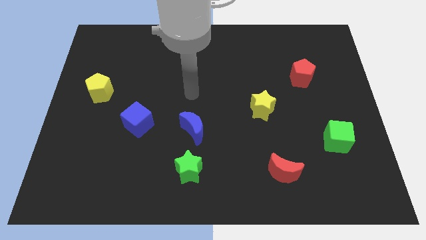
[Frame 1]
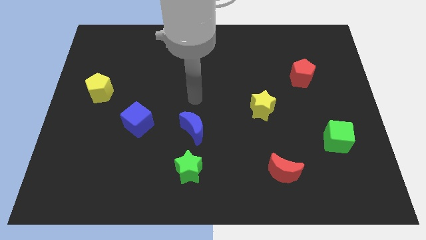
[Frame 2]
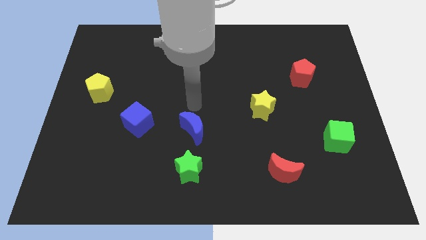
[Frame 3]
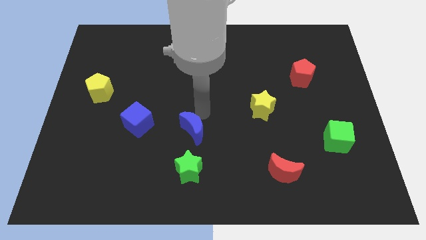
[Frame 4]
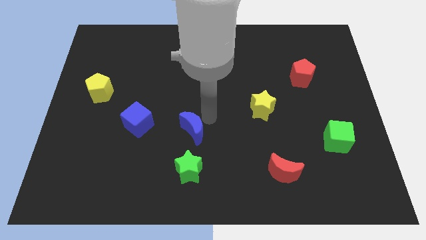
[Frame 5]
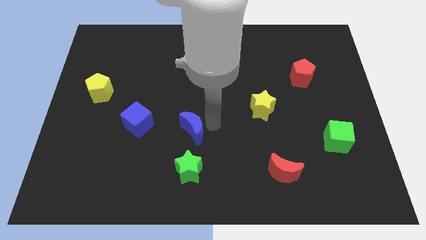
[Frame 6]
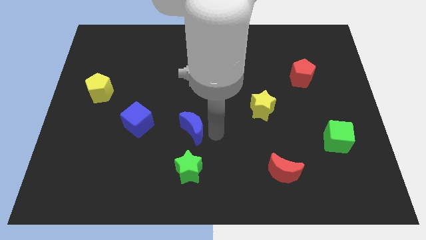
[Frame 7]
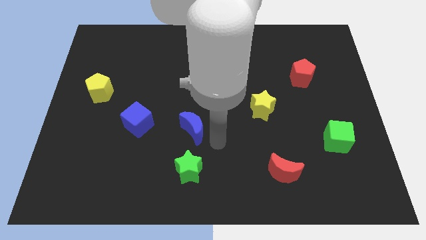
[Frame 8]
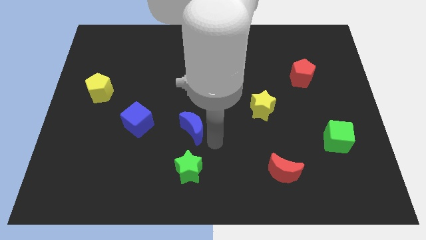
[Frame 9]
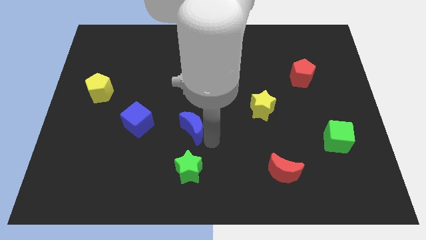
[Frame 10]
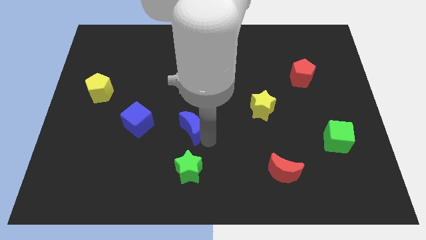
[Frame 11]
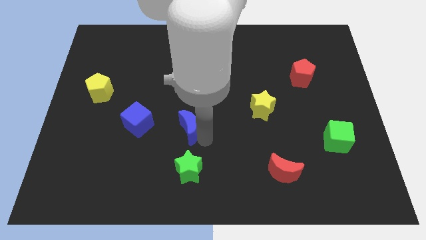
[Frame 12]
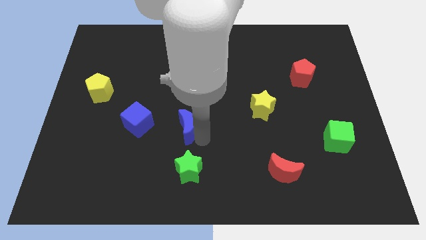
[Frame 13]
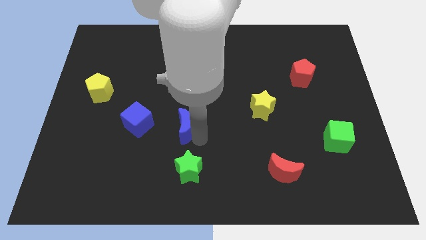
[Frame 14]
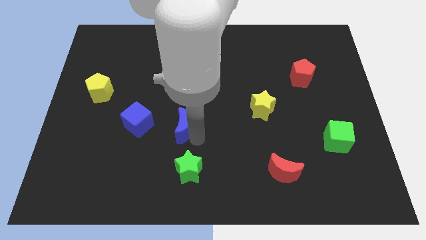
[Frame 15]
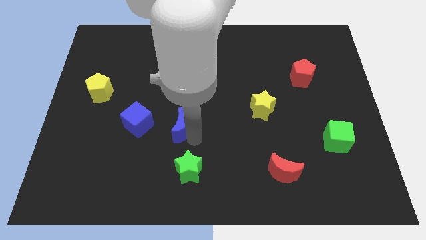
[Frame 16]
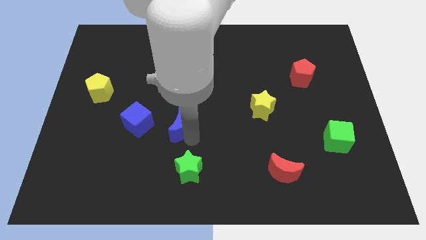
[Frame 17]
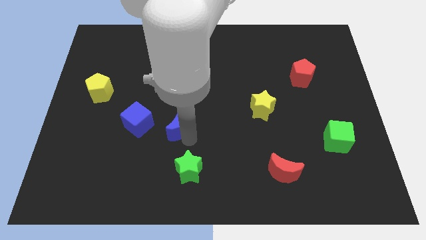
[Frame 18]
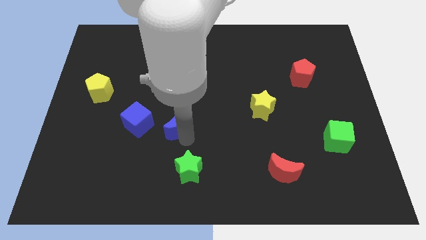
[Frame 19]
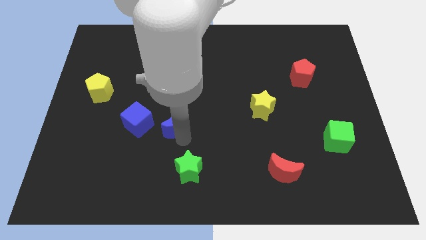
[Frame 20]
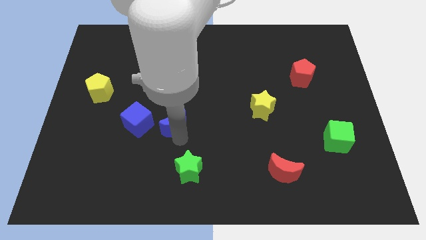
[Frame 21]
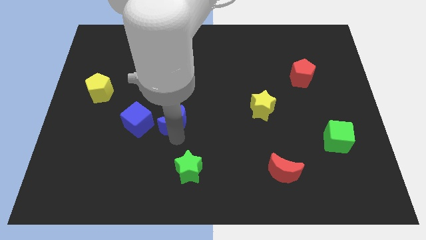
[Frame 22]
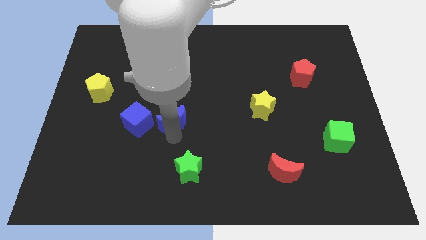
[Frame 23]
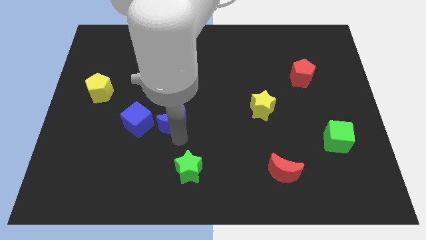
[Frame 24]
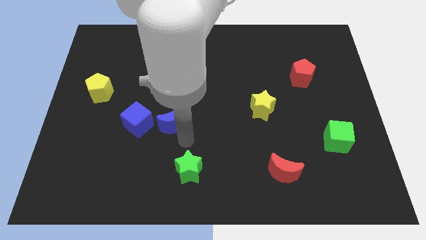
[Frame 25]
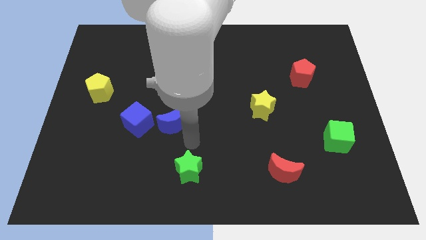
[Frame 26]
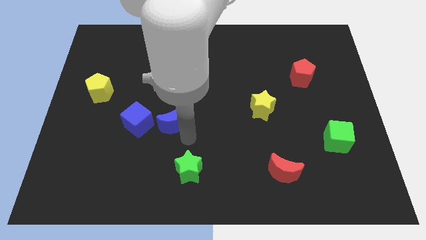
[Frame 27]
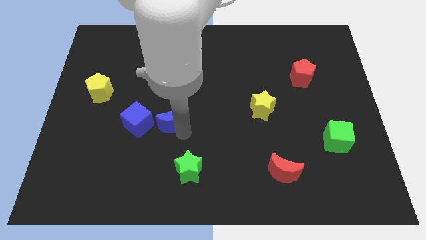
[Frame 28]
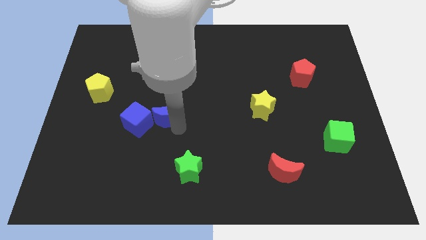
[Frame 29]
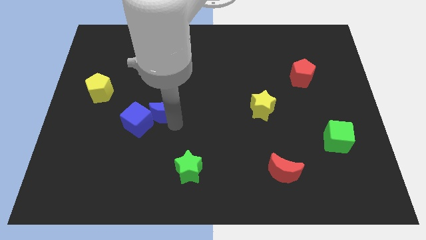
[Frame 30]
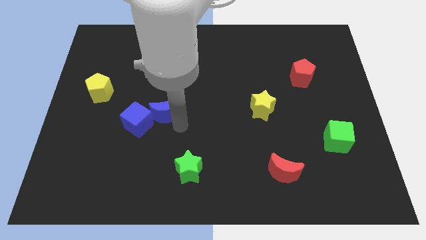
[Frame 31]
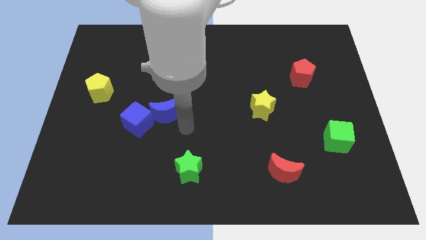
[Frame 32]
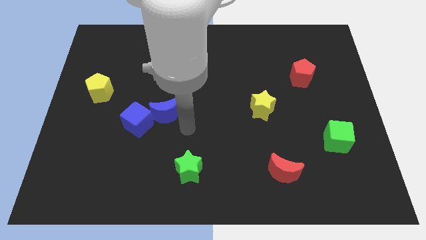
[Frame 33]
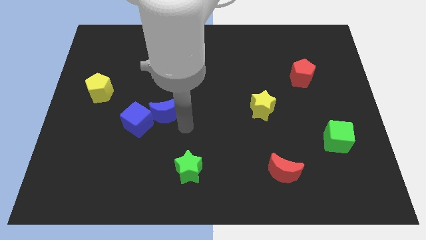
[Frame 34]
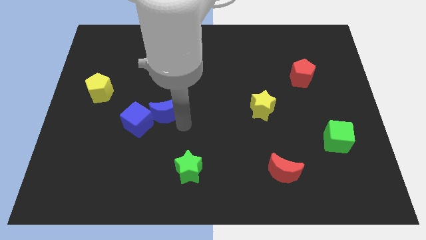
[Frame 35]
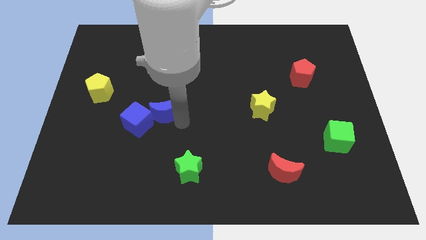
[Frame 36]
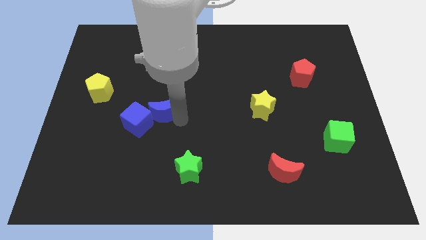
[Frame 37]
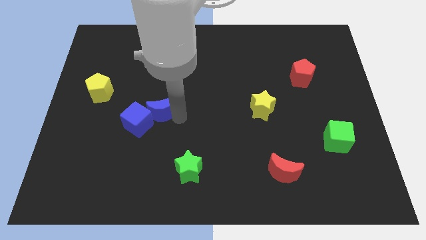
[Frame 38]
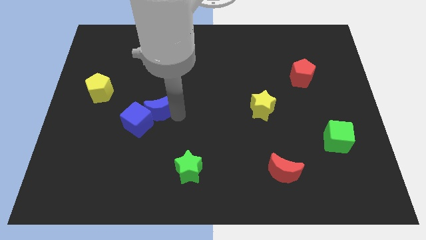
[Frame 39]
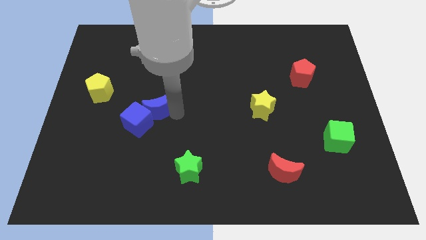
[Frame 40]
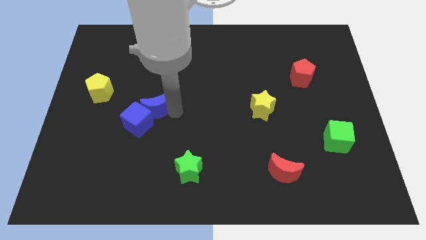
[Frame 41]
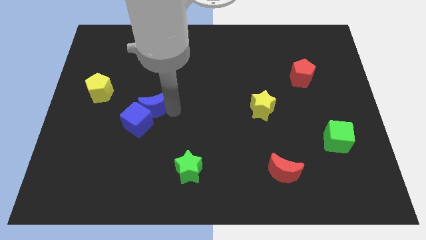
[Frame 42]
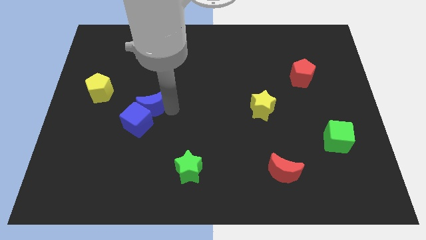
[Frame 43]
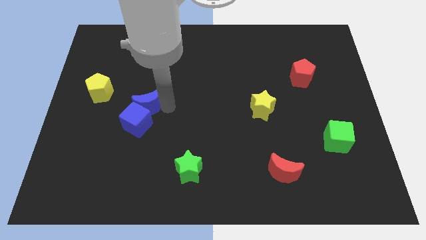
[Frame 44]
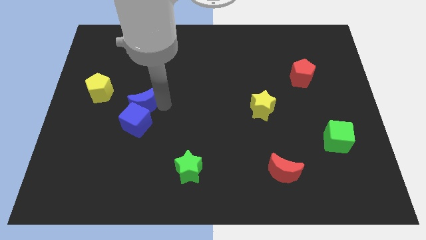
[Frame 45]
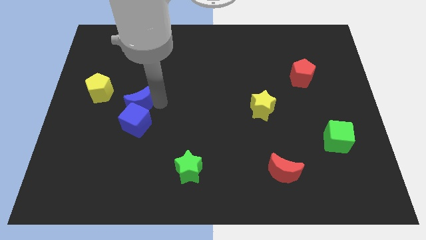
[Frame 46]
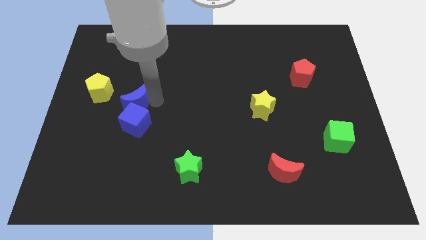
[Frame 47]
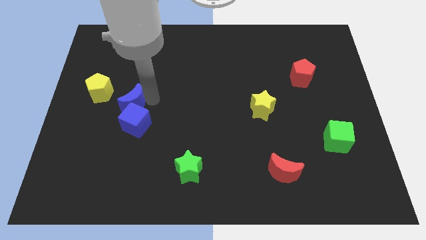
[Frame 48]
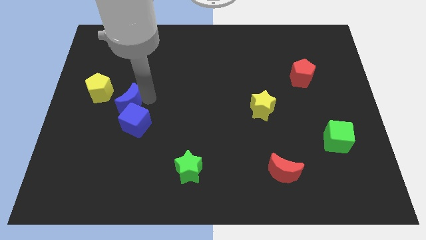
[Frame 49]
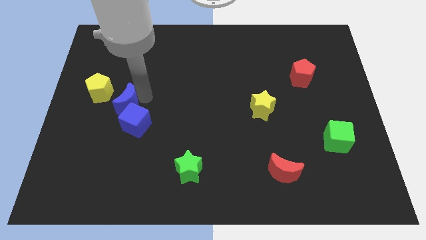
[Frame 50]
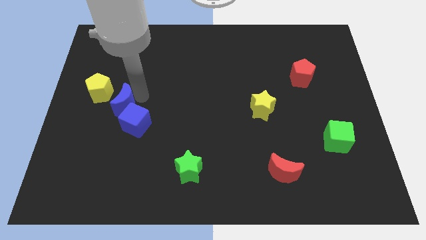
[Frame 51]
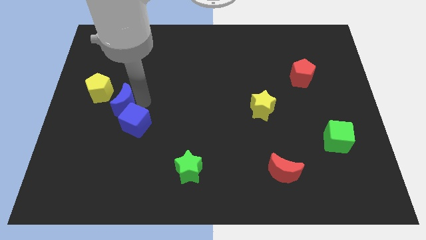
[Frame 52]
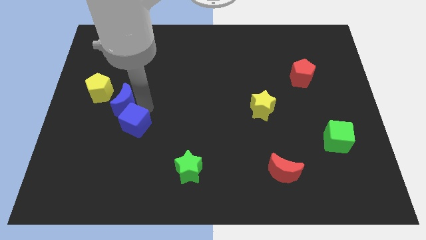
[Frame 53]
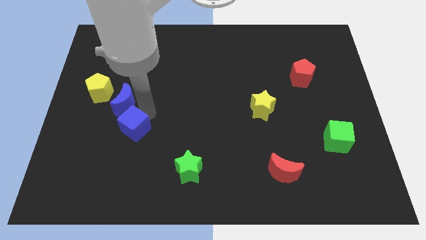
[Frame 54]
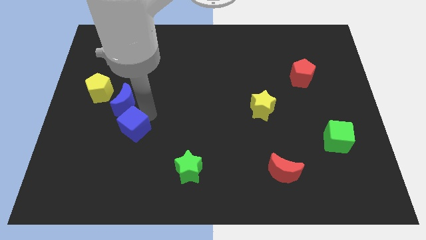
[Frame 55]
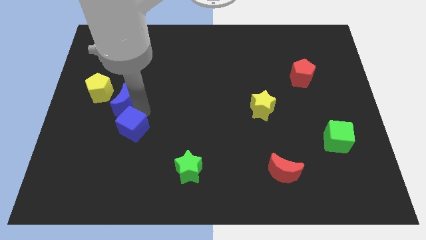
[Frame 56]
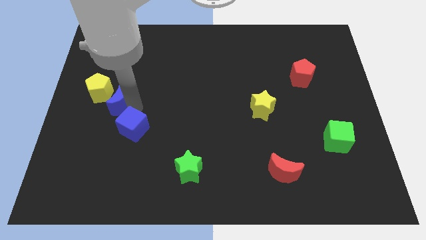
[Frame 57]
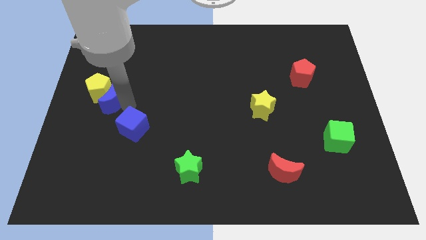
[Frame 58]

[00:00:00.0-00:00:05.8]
push the blue moon to the yellow pentagon

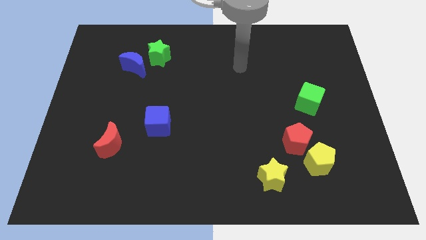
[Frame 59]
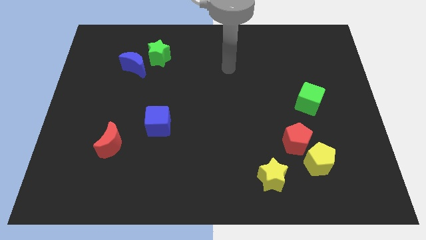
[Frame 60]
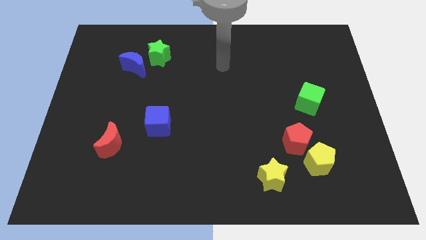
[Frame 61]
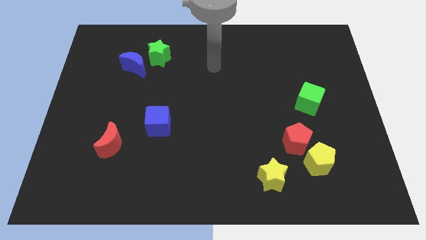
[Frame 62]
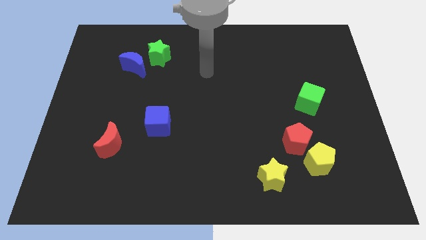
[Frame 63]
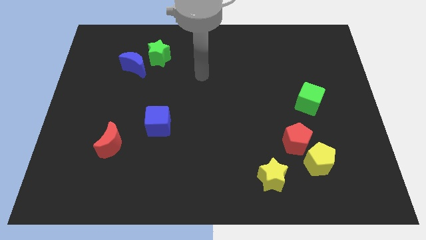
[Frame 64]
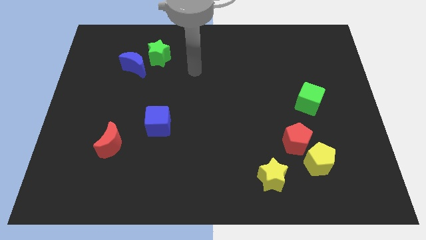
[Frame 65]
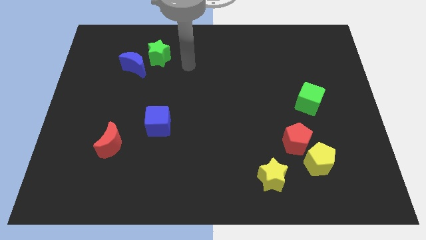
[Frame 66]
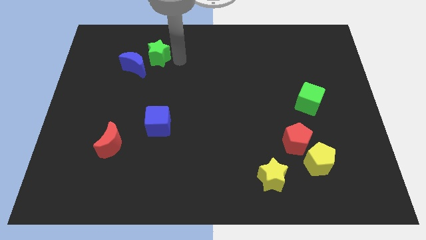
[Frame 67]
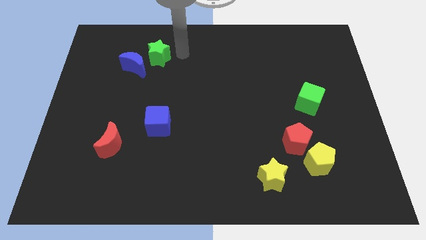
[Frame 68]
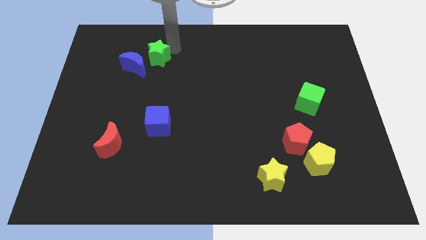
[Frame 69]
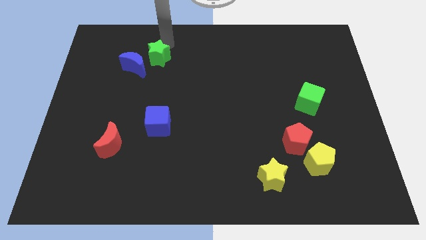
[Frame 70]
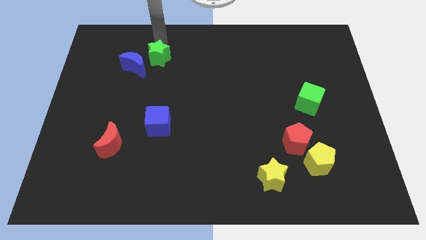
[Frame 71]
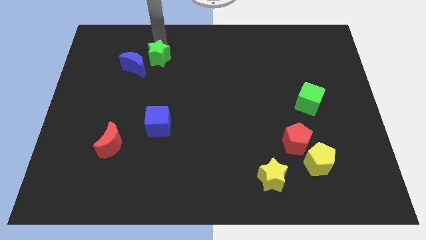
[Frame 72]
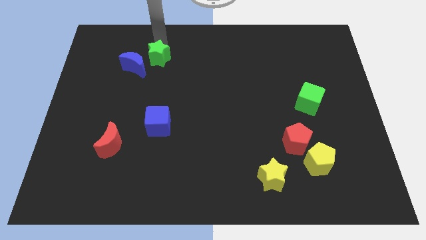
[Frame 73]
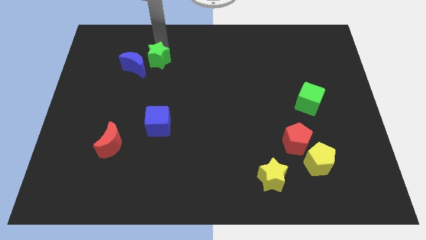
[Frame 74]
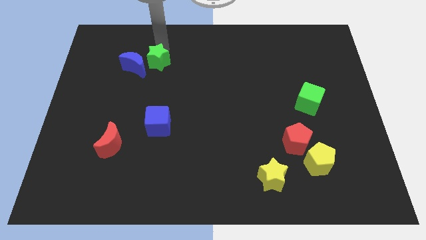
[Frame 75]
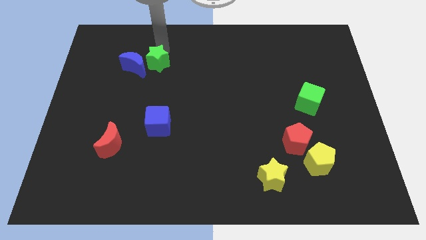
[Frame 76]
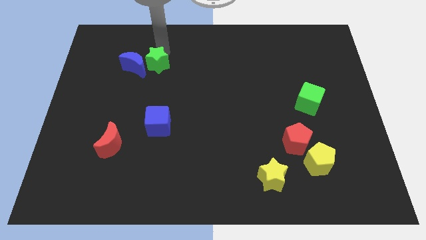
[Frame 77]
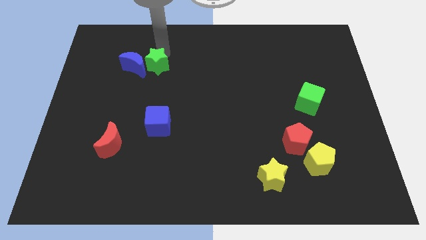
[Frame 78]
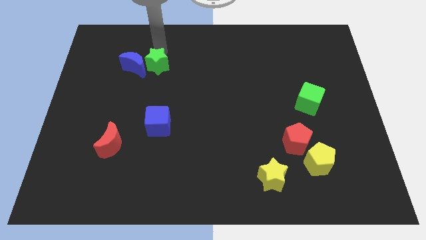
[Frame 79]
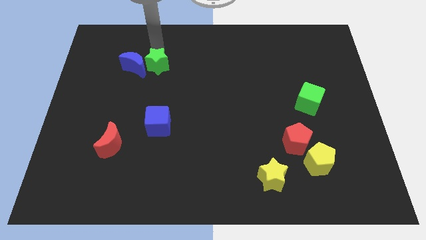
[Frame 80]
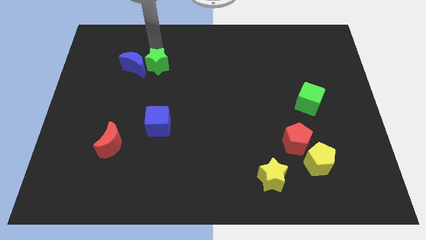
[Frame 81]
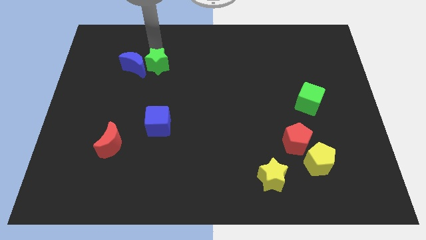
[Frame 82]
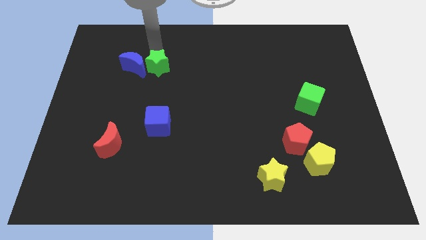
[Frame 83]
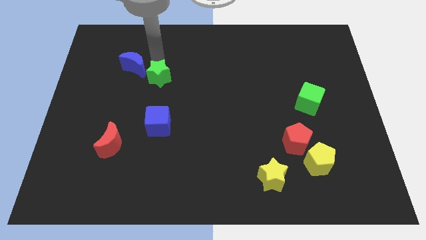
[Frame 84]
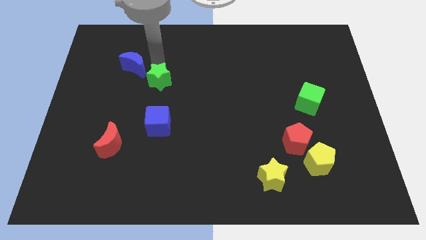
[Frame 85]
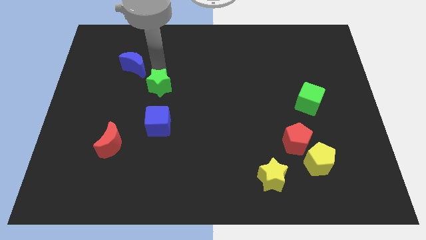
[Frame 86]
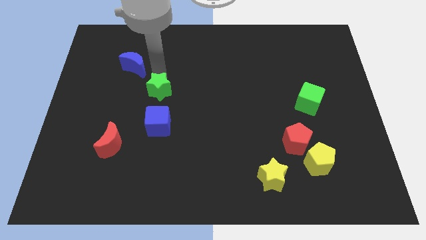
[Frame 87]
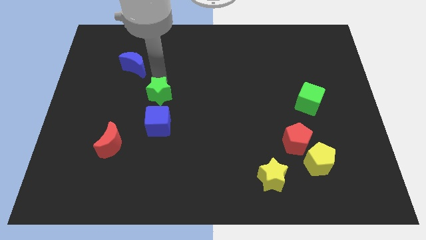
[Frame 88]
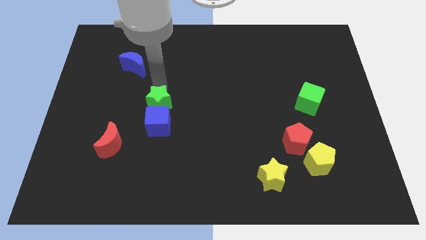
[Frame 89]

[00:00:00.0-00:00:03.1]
slide the green star to the blue cube
